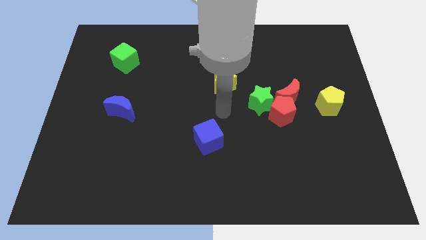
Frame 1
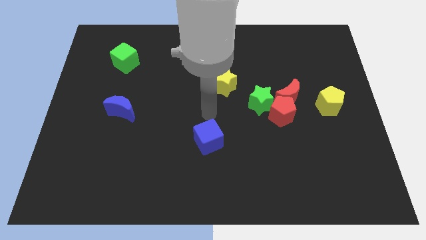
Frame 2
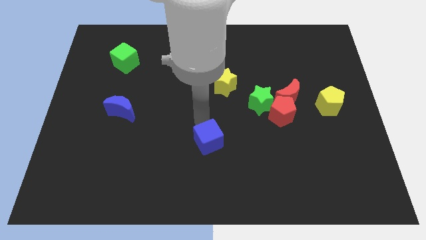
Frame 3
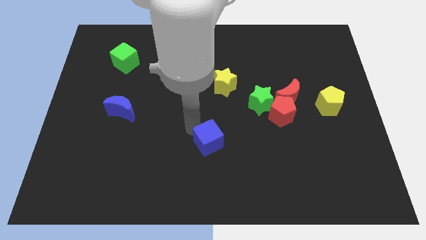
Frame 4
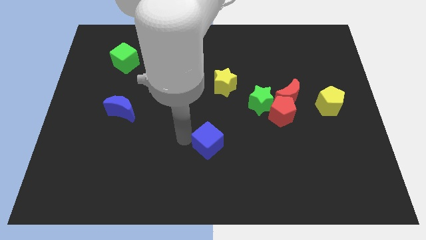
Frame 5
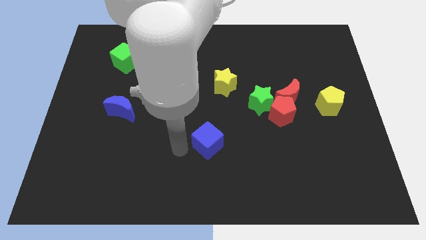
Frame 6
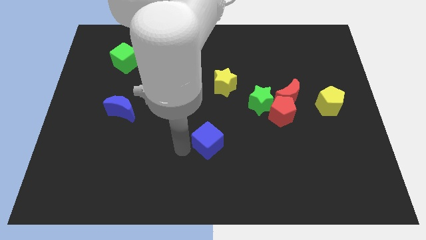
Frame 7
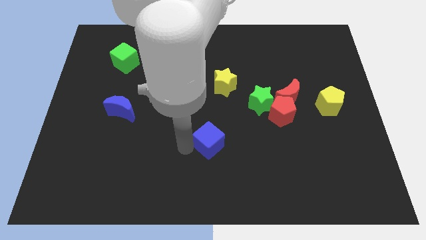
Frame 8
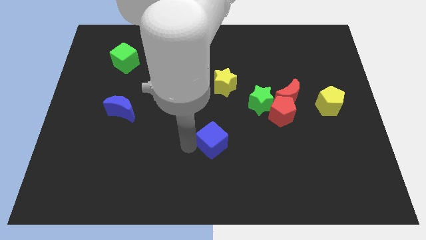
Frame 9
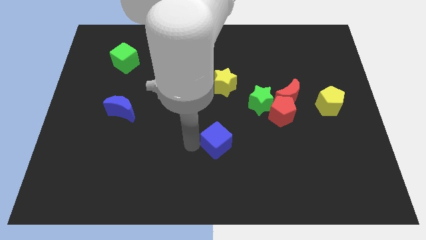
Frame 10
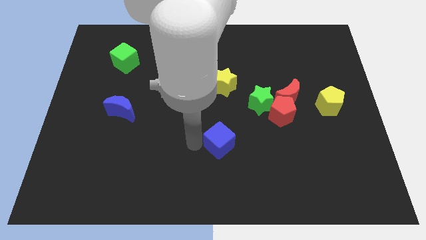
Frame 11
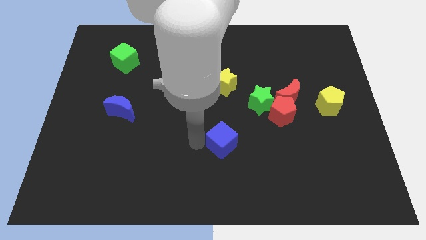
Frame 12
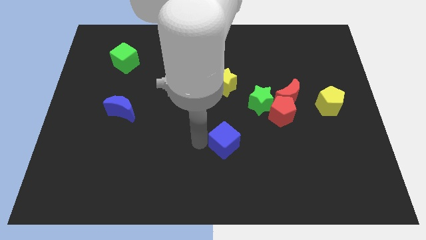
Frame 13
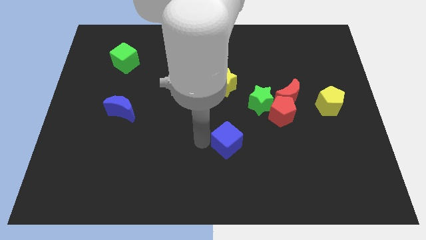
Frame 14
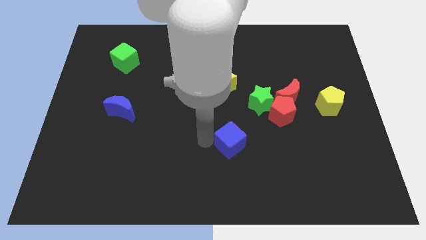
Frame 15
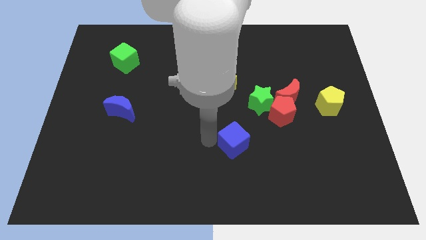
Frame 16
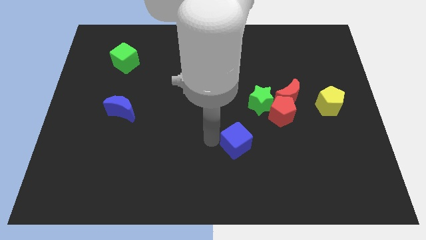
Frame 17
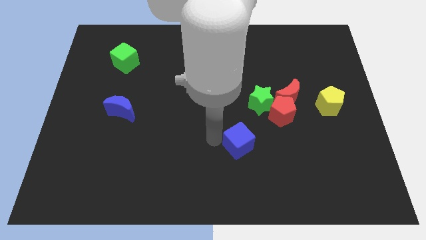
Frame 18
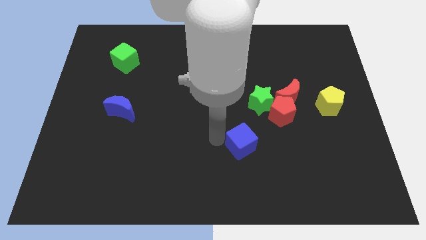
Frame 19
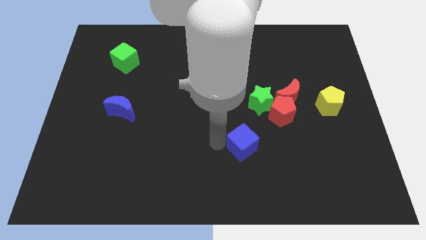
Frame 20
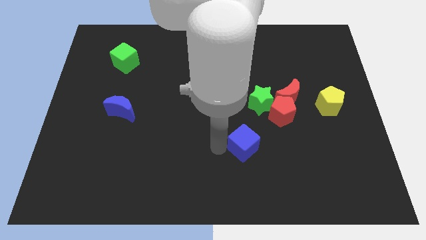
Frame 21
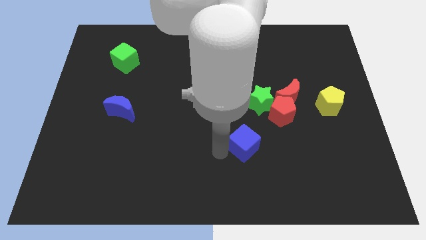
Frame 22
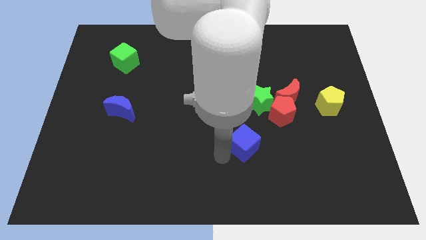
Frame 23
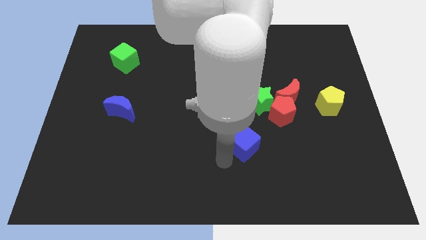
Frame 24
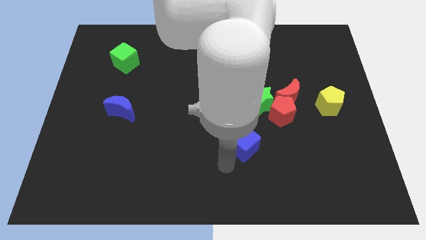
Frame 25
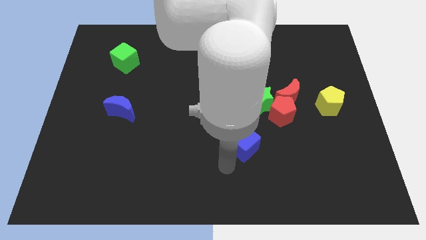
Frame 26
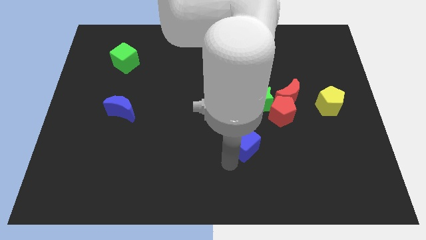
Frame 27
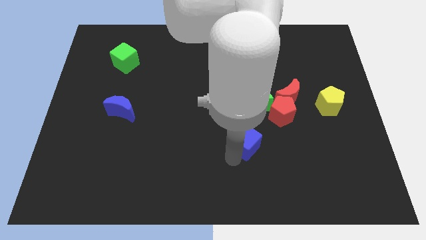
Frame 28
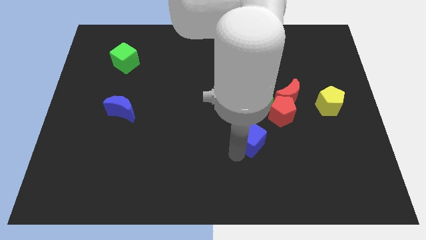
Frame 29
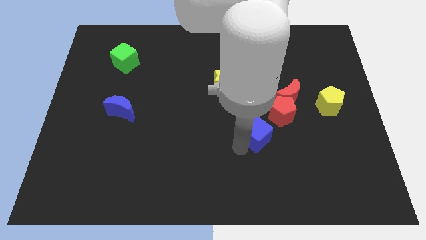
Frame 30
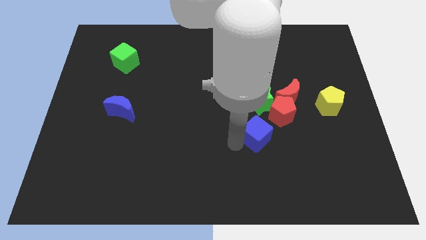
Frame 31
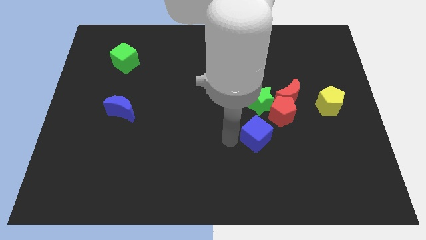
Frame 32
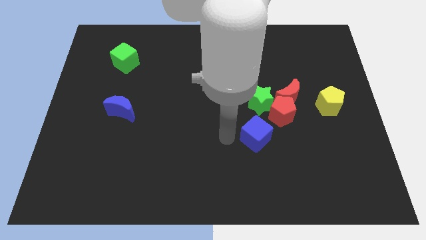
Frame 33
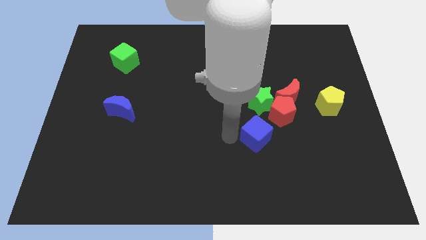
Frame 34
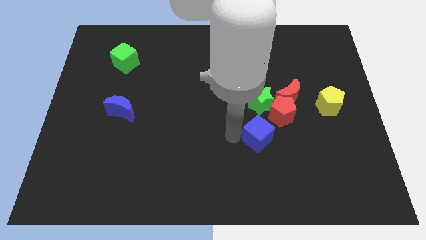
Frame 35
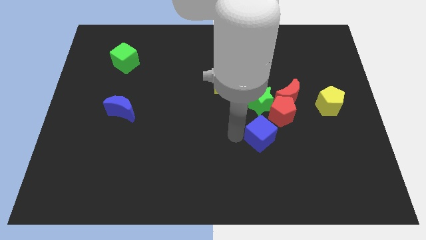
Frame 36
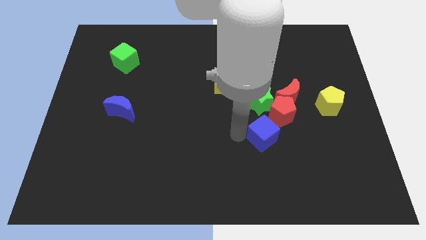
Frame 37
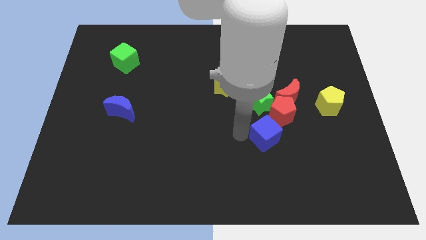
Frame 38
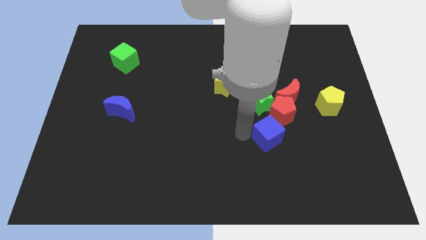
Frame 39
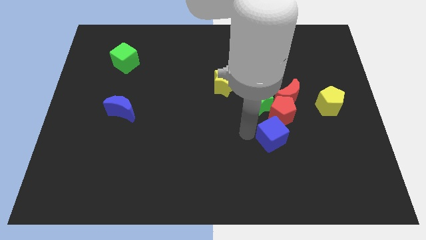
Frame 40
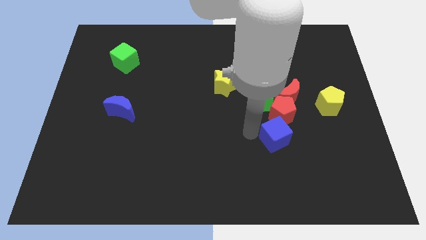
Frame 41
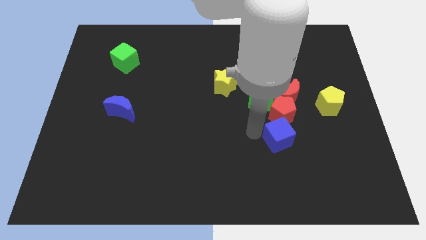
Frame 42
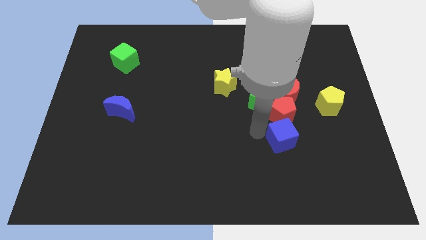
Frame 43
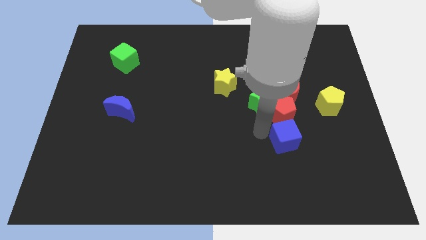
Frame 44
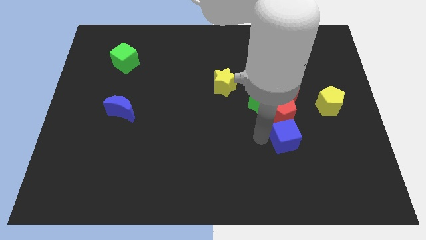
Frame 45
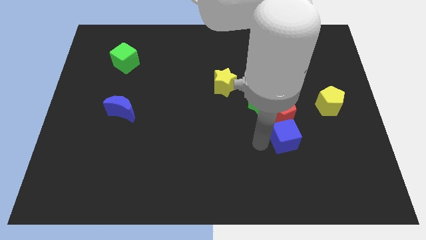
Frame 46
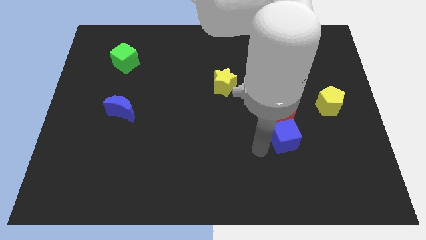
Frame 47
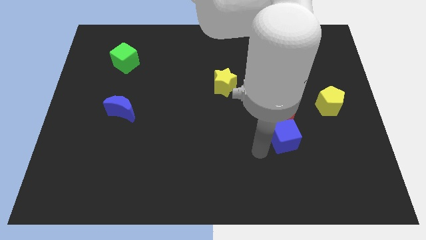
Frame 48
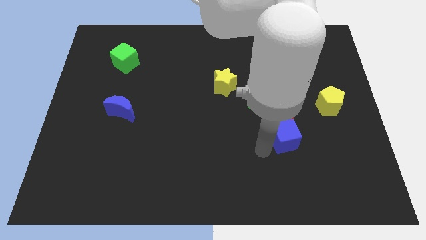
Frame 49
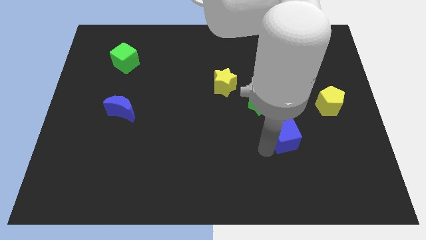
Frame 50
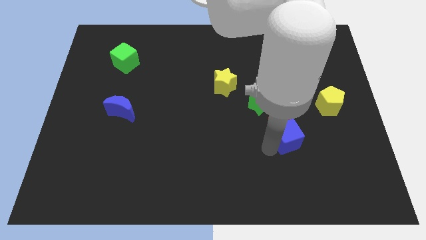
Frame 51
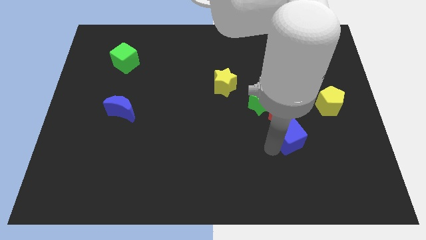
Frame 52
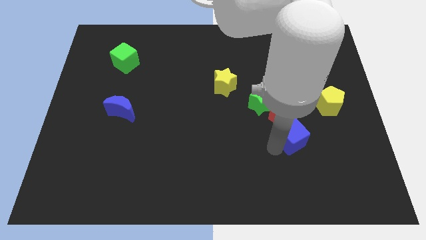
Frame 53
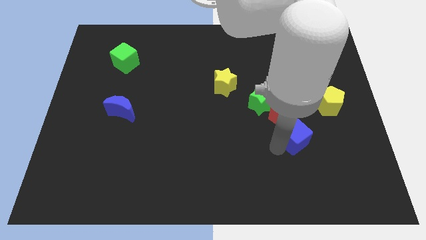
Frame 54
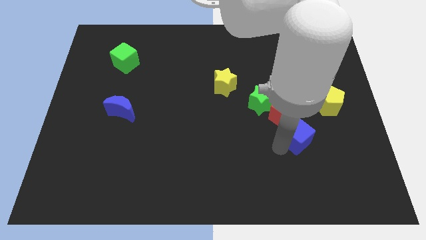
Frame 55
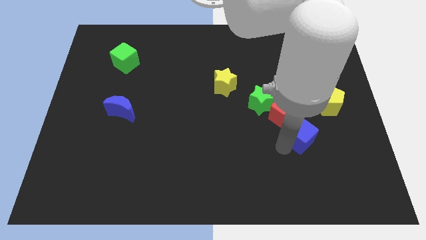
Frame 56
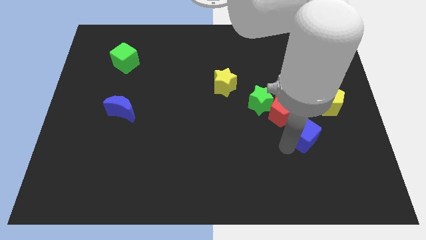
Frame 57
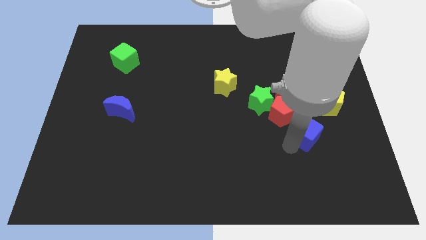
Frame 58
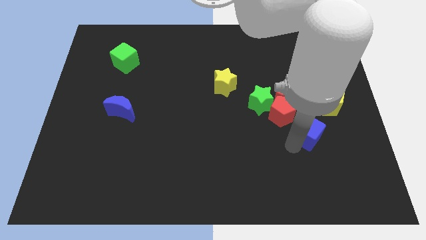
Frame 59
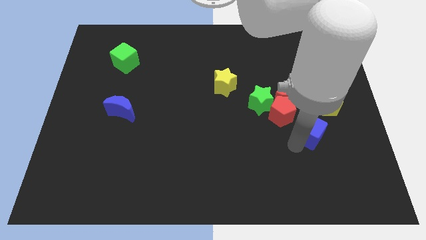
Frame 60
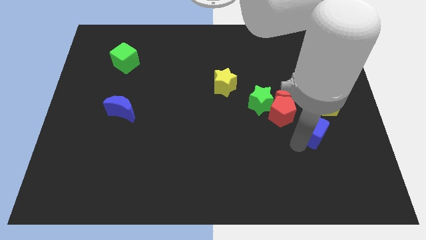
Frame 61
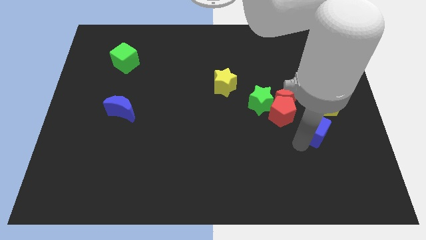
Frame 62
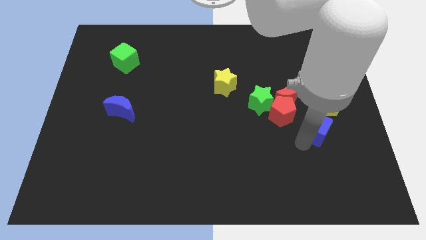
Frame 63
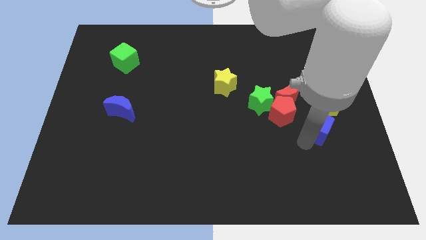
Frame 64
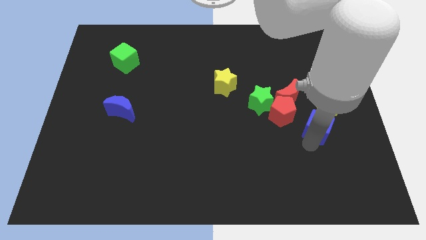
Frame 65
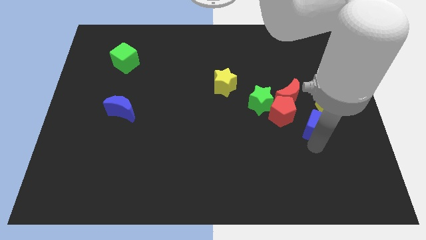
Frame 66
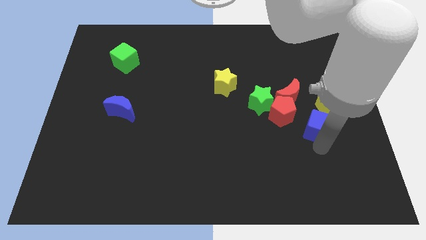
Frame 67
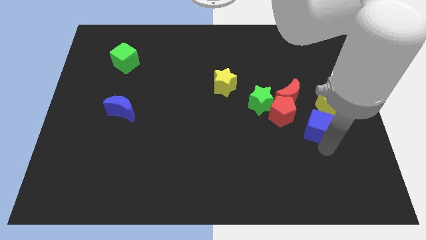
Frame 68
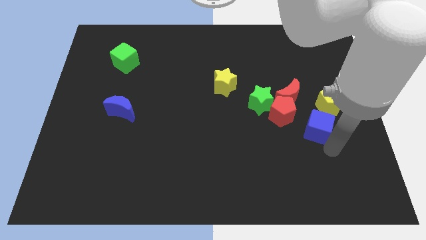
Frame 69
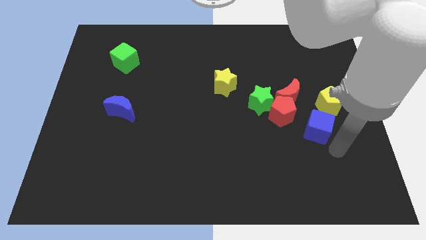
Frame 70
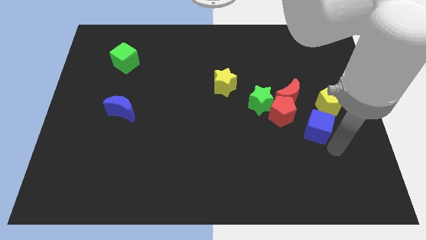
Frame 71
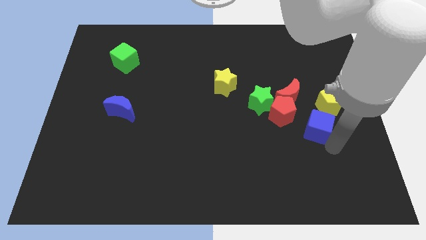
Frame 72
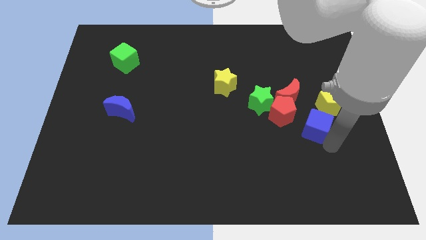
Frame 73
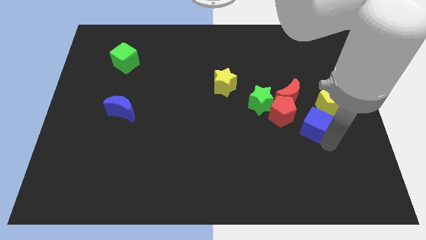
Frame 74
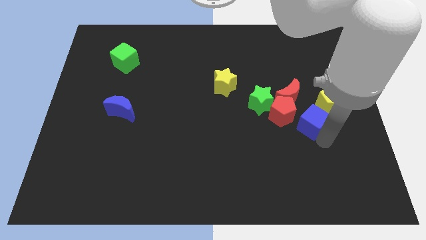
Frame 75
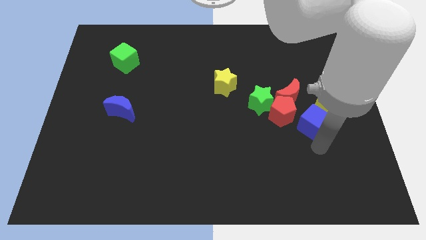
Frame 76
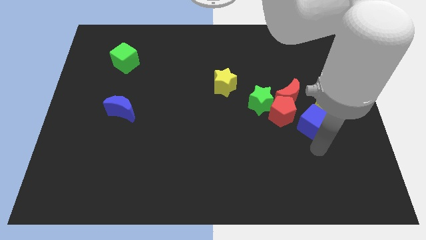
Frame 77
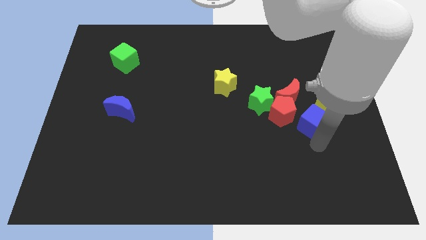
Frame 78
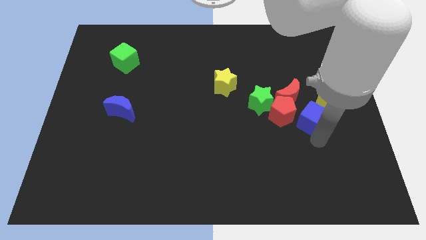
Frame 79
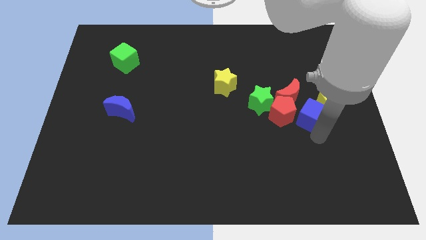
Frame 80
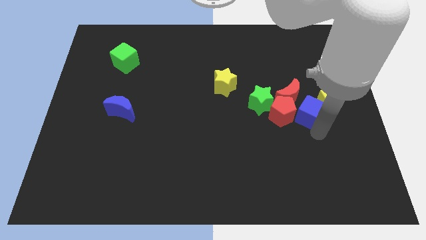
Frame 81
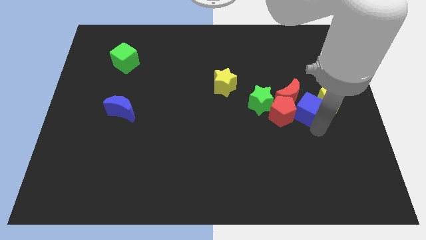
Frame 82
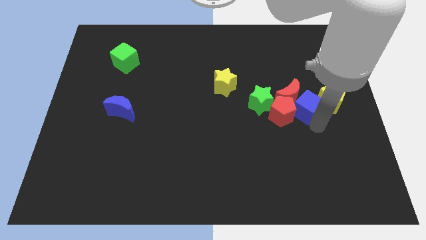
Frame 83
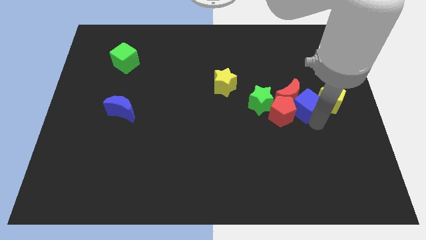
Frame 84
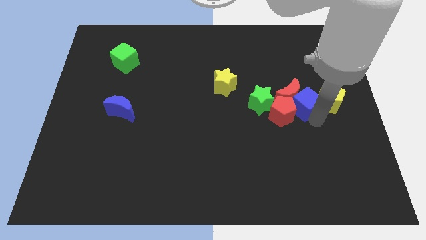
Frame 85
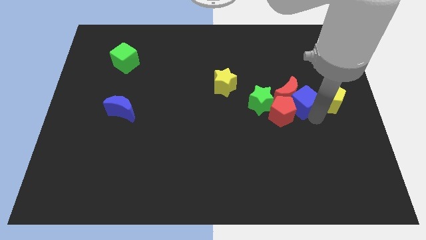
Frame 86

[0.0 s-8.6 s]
move the blue cube to the top left of the yellow pentagon
